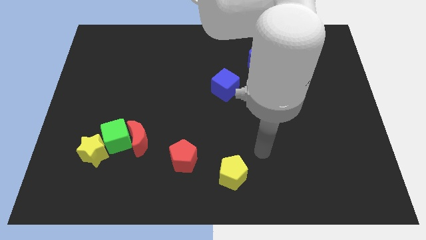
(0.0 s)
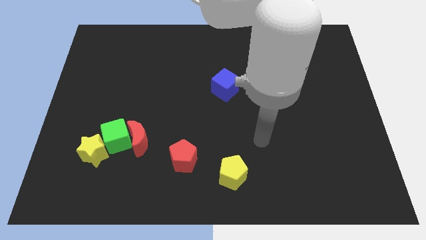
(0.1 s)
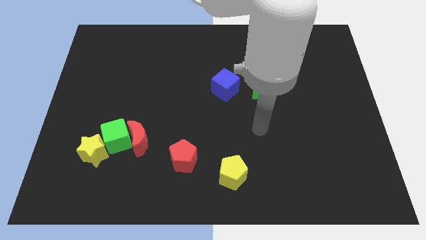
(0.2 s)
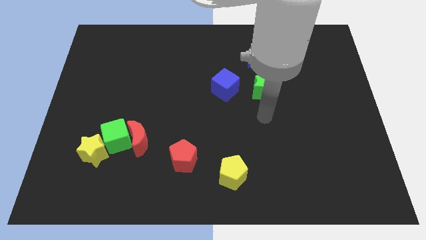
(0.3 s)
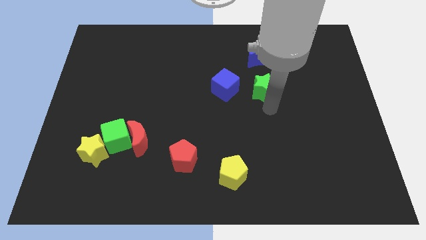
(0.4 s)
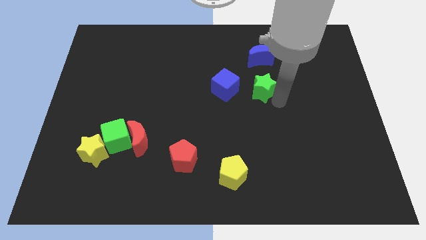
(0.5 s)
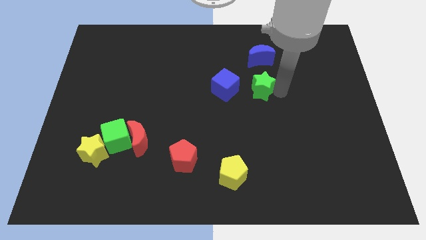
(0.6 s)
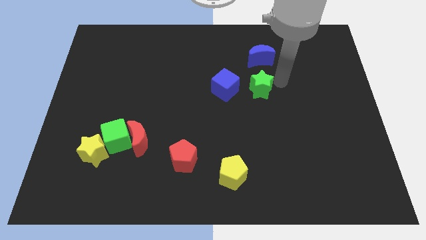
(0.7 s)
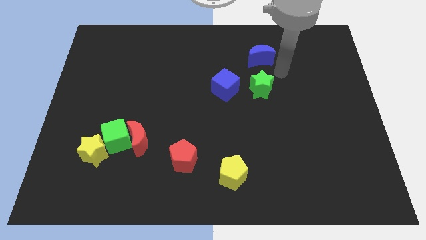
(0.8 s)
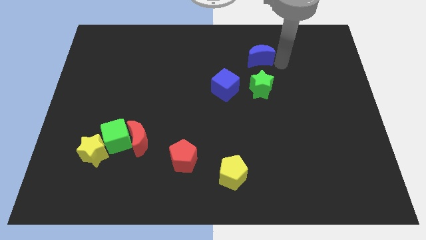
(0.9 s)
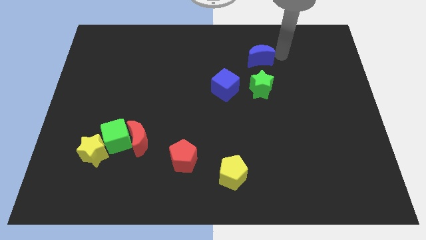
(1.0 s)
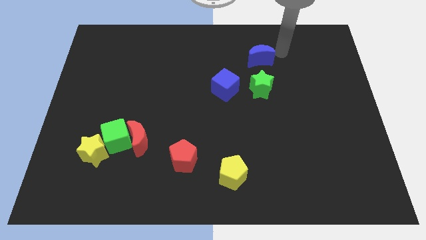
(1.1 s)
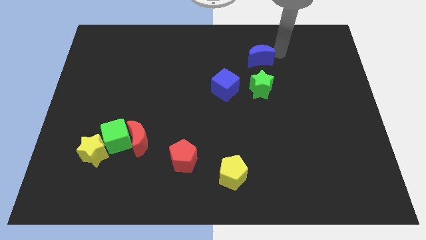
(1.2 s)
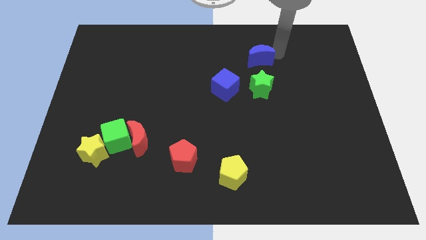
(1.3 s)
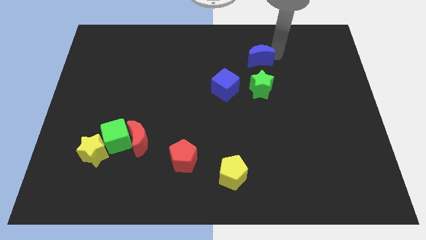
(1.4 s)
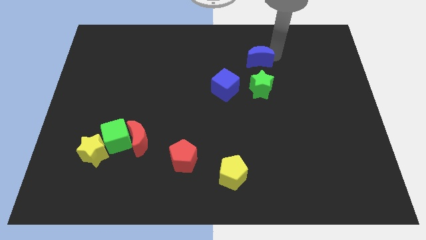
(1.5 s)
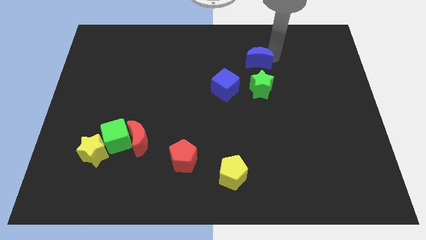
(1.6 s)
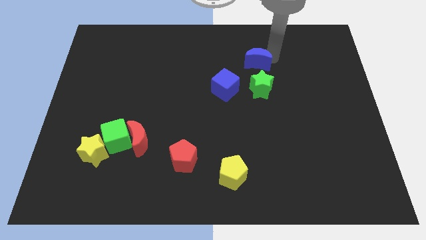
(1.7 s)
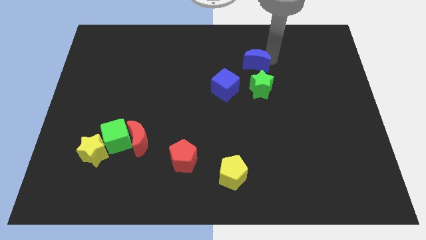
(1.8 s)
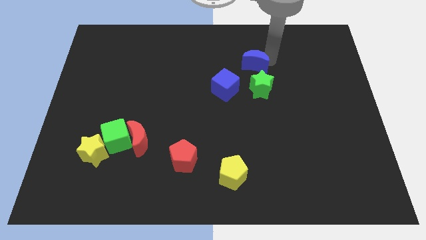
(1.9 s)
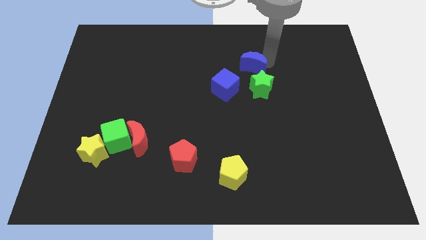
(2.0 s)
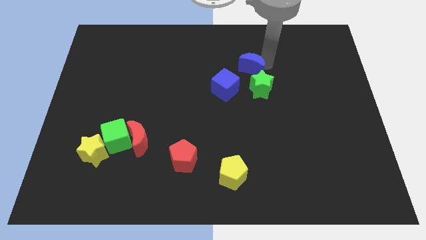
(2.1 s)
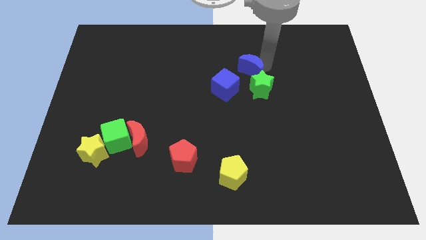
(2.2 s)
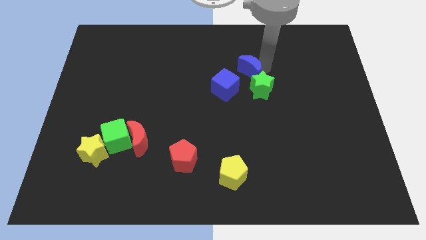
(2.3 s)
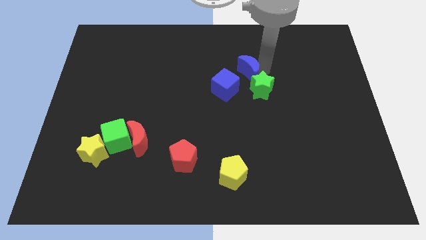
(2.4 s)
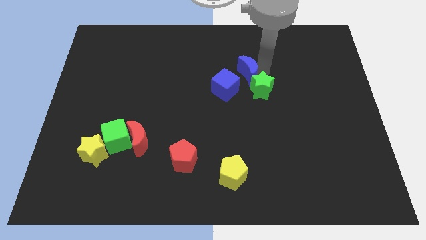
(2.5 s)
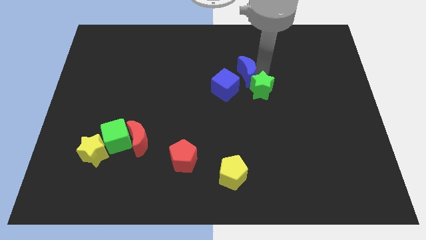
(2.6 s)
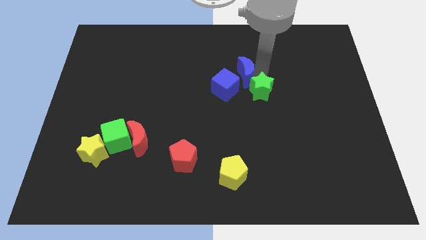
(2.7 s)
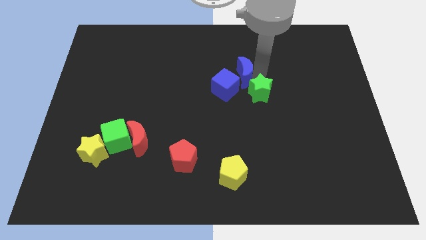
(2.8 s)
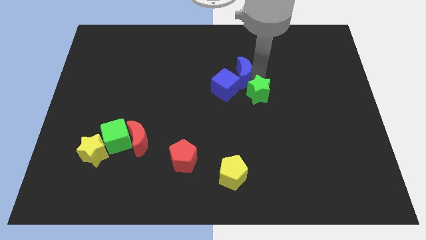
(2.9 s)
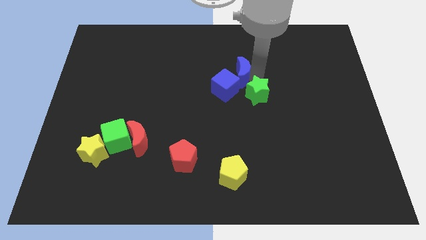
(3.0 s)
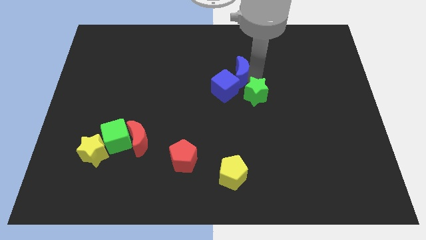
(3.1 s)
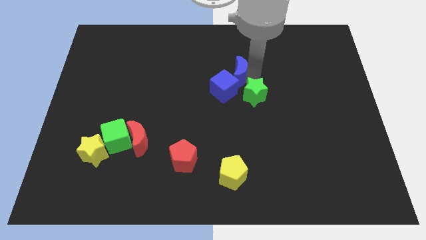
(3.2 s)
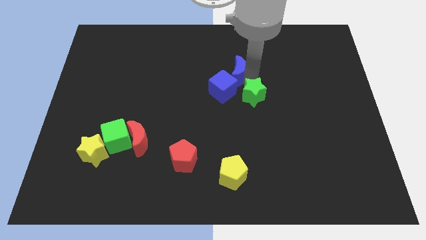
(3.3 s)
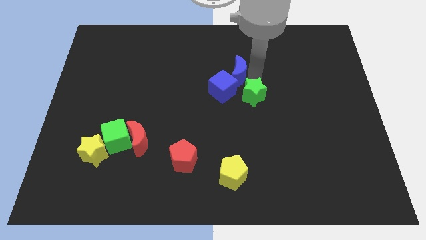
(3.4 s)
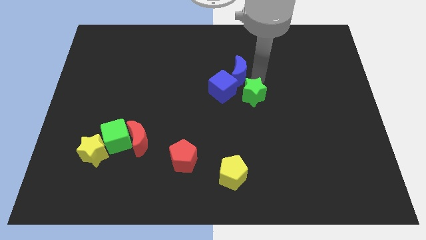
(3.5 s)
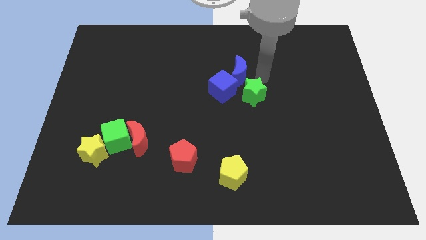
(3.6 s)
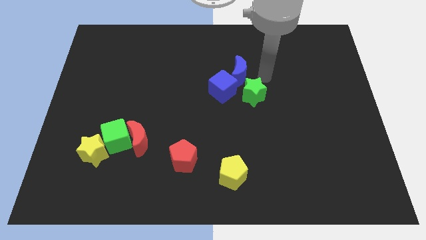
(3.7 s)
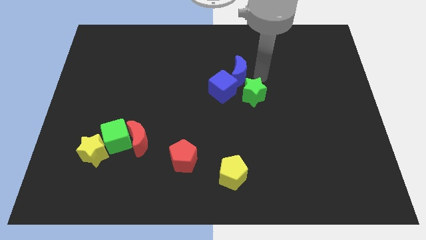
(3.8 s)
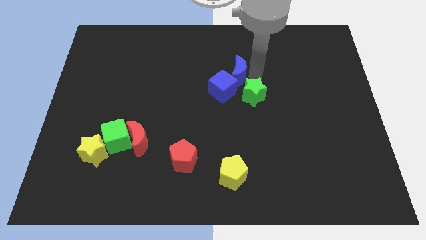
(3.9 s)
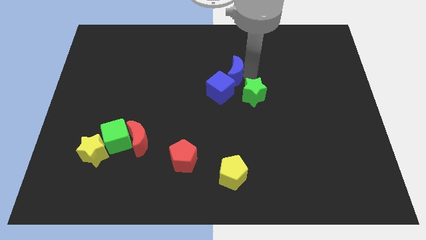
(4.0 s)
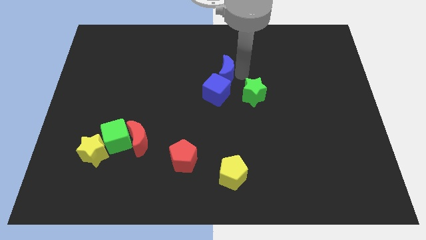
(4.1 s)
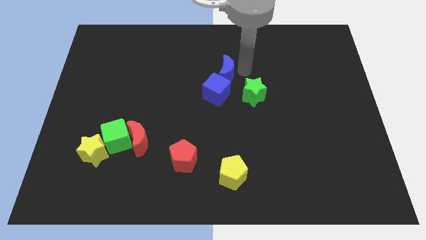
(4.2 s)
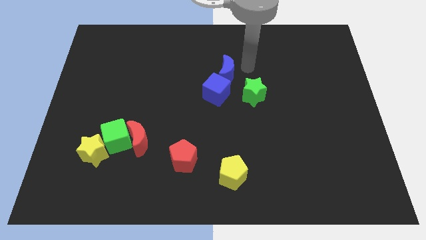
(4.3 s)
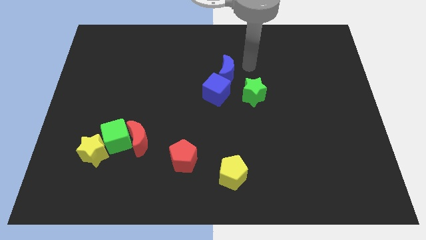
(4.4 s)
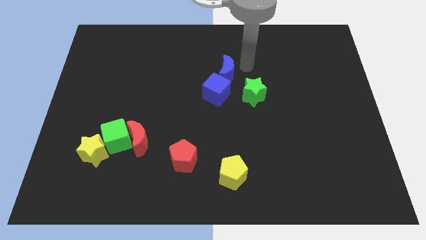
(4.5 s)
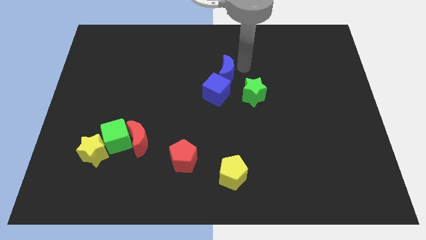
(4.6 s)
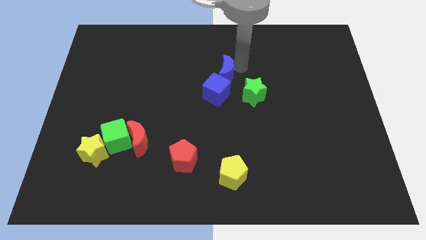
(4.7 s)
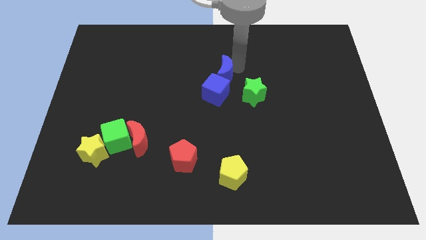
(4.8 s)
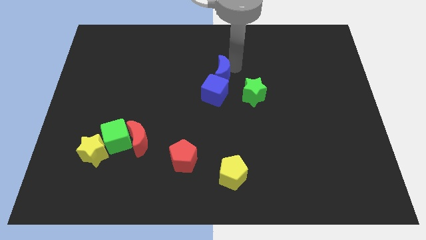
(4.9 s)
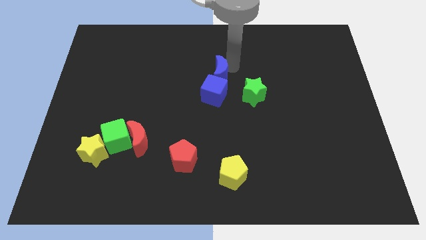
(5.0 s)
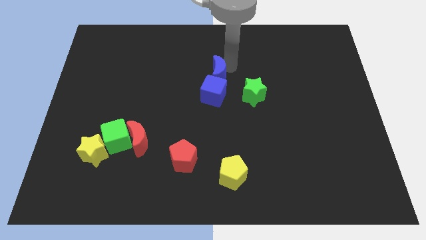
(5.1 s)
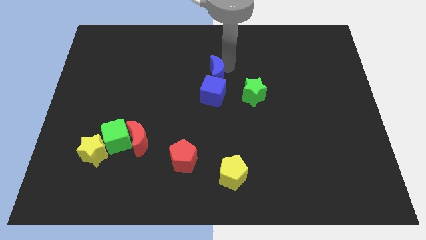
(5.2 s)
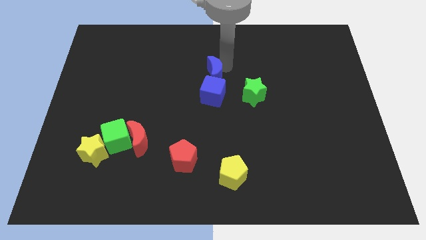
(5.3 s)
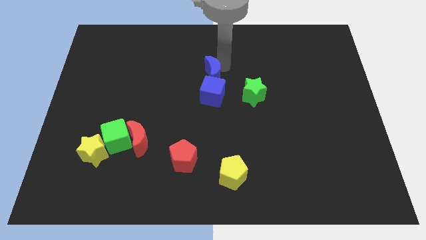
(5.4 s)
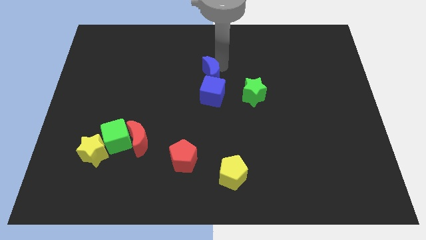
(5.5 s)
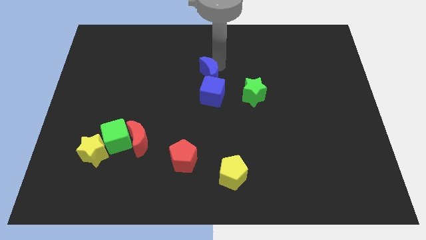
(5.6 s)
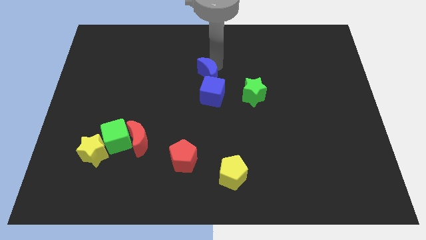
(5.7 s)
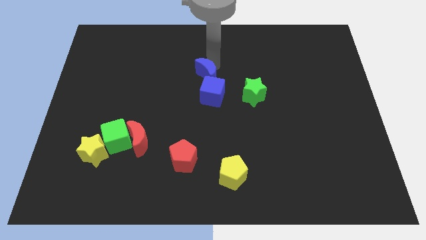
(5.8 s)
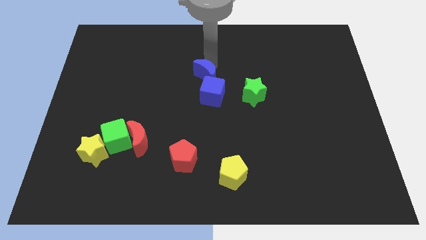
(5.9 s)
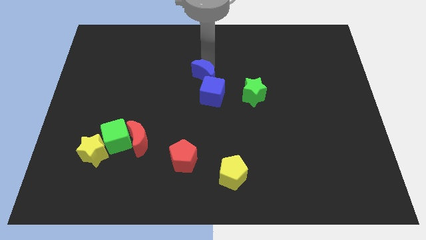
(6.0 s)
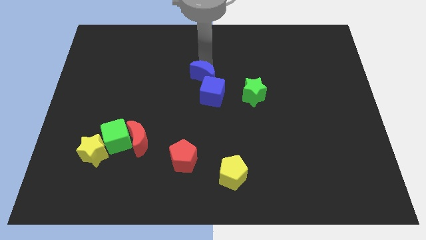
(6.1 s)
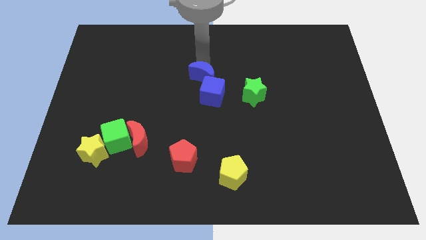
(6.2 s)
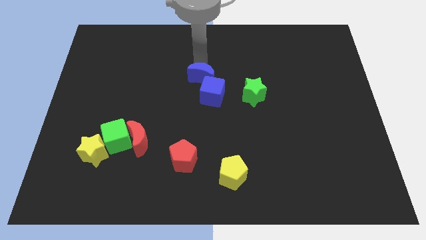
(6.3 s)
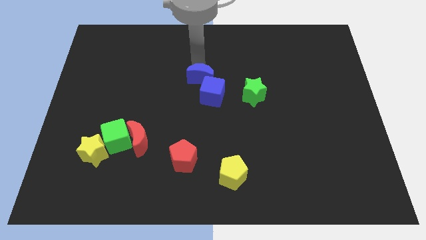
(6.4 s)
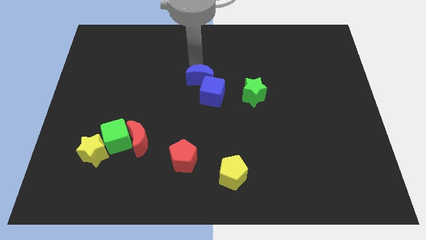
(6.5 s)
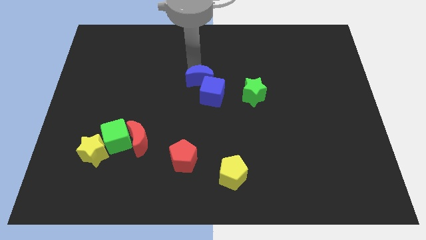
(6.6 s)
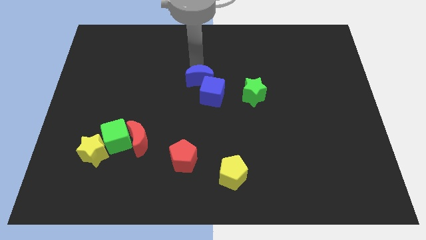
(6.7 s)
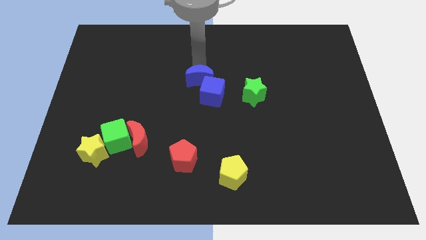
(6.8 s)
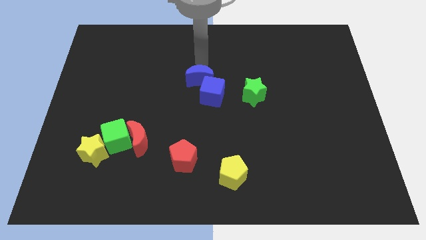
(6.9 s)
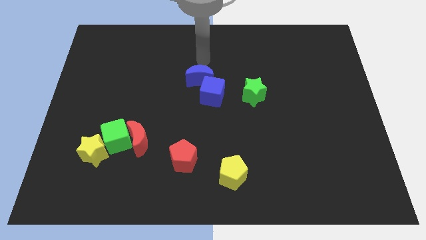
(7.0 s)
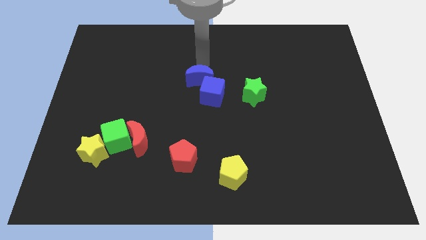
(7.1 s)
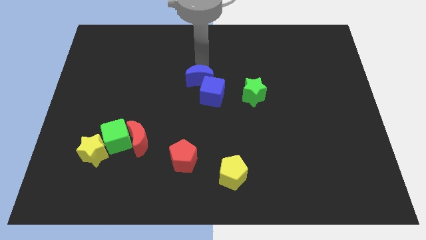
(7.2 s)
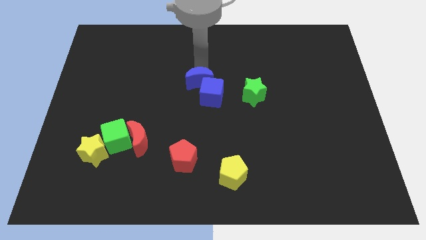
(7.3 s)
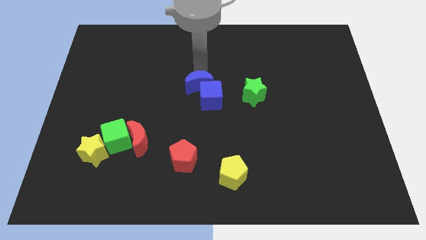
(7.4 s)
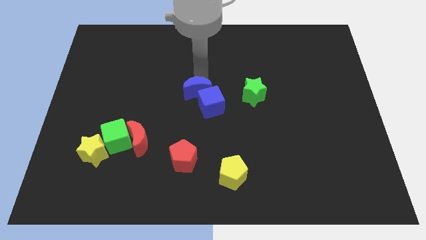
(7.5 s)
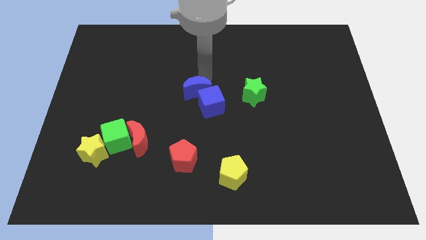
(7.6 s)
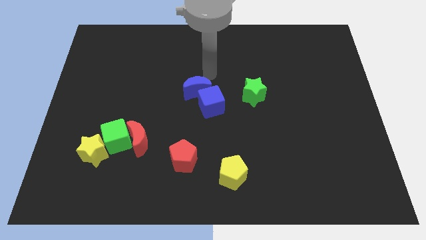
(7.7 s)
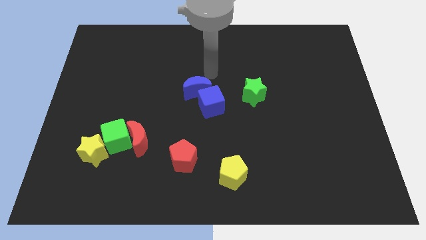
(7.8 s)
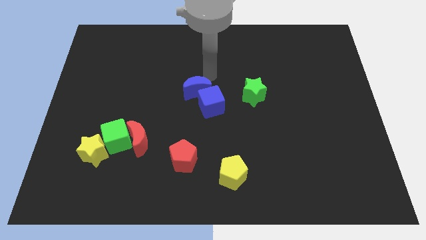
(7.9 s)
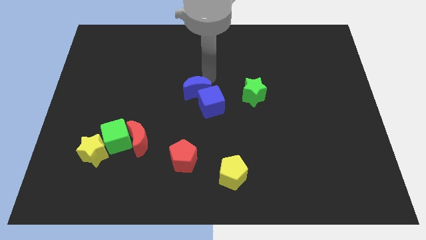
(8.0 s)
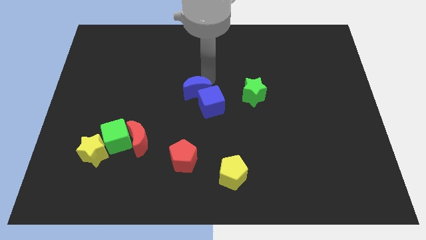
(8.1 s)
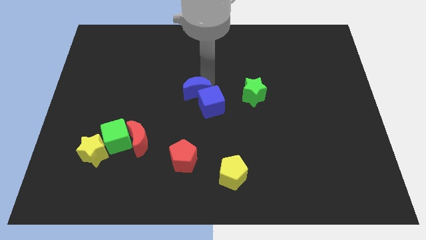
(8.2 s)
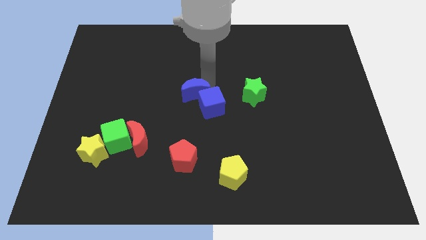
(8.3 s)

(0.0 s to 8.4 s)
slide the blue moon down and then left

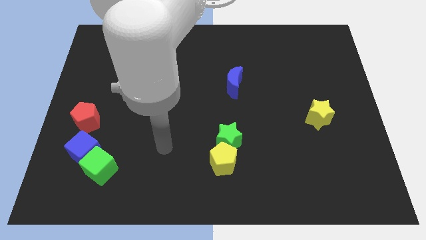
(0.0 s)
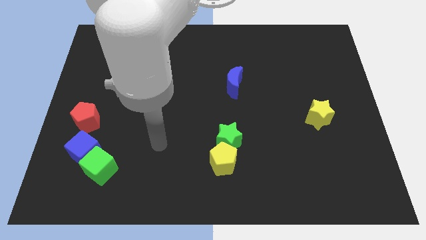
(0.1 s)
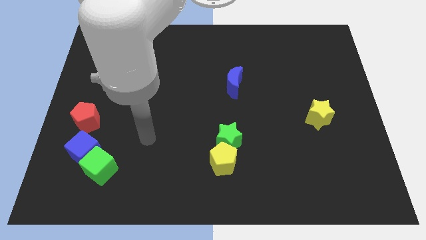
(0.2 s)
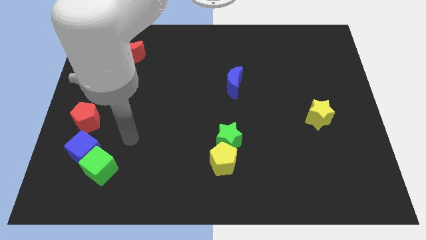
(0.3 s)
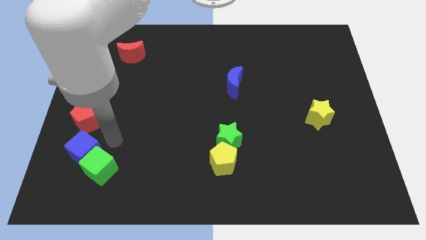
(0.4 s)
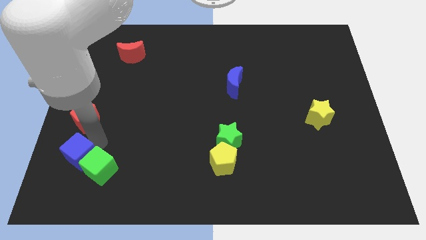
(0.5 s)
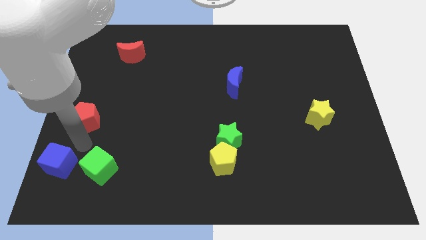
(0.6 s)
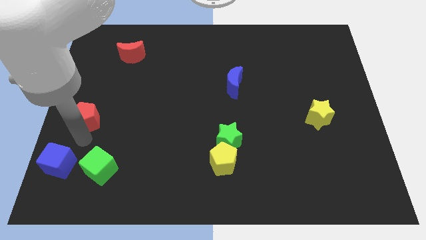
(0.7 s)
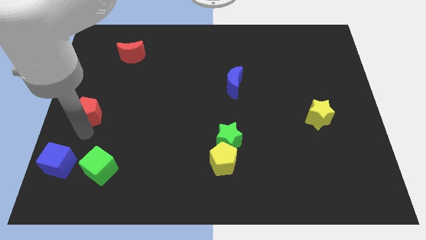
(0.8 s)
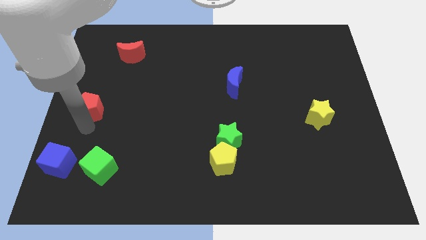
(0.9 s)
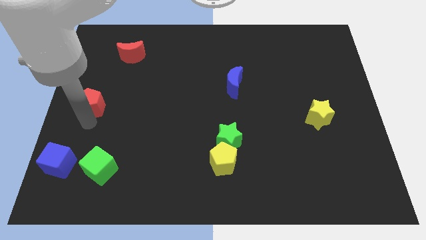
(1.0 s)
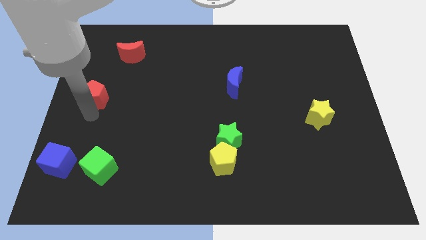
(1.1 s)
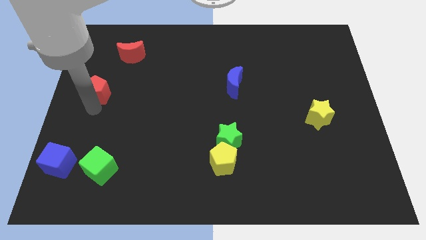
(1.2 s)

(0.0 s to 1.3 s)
push the red pentagon slightly upwards
